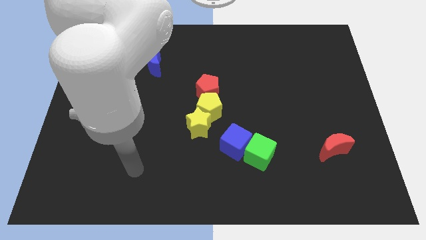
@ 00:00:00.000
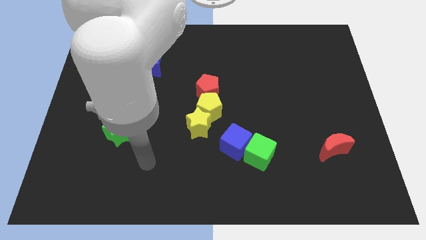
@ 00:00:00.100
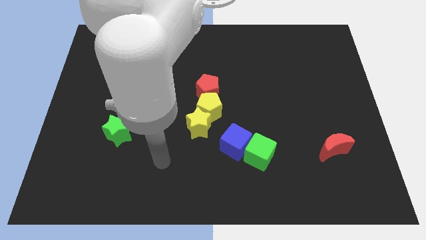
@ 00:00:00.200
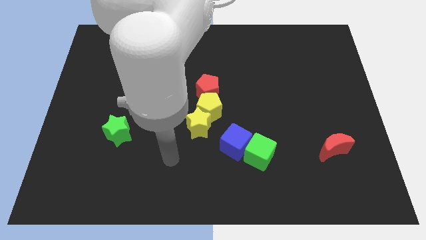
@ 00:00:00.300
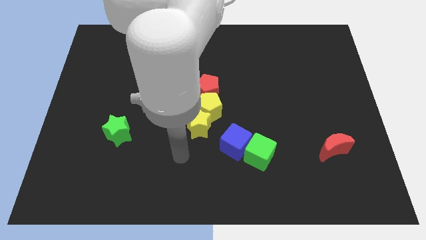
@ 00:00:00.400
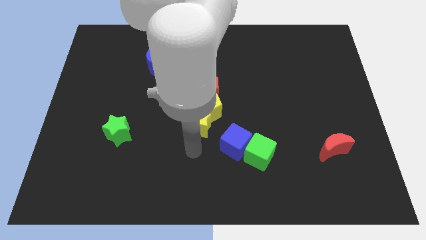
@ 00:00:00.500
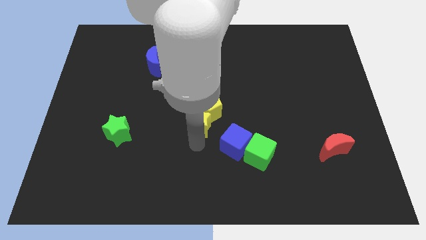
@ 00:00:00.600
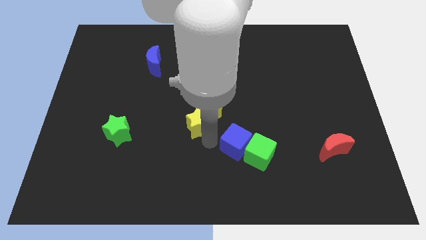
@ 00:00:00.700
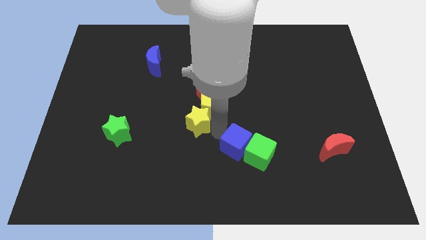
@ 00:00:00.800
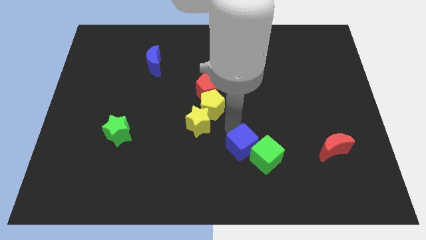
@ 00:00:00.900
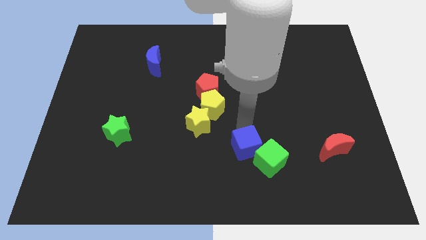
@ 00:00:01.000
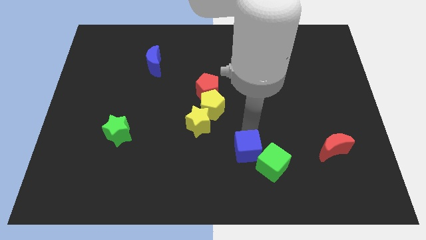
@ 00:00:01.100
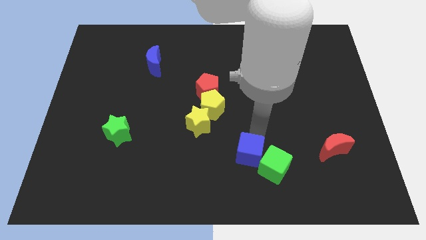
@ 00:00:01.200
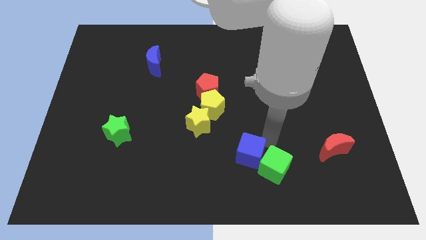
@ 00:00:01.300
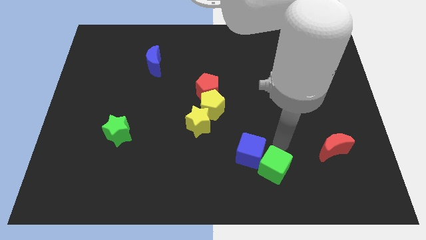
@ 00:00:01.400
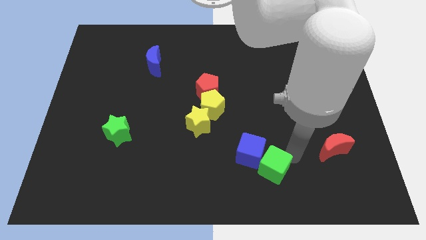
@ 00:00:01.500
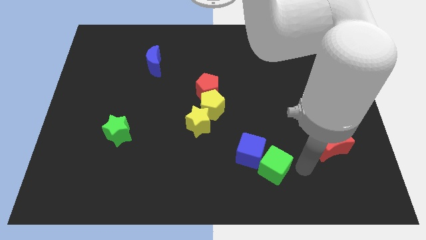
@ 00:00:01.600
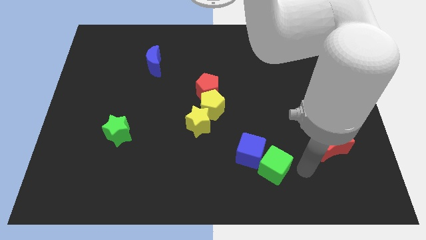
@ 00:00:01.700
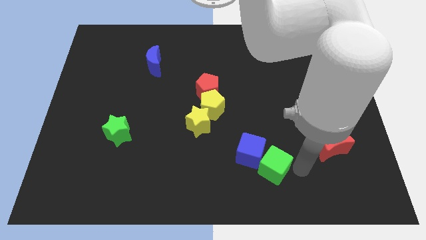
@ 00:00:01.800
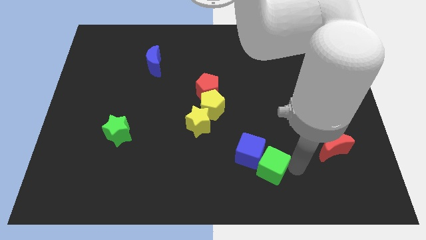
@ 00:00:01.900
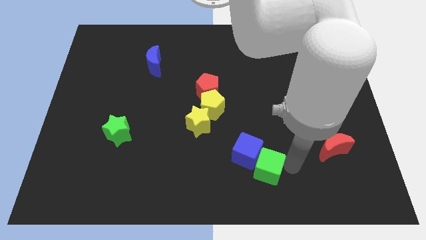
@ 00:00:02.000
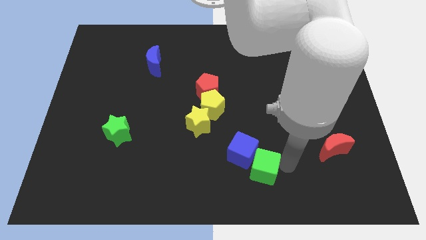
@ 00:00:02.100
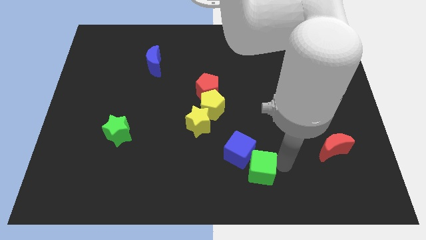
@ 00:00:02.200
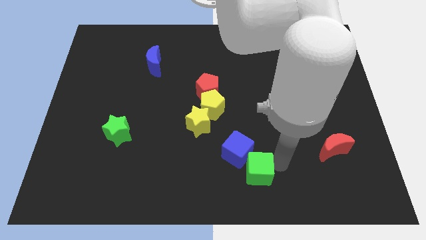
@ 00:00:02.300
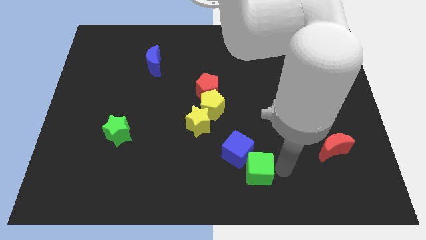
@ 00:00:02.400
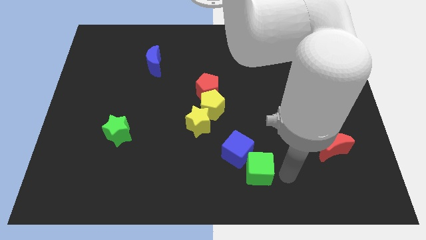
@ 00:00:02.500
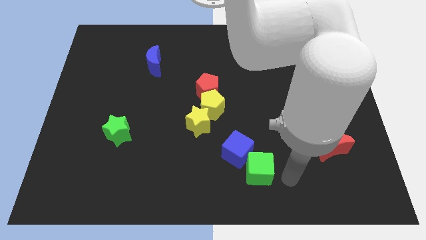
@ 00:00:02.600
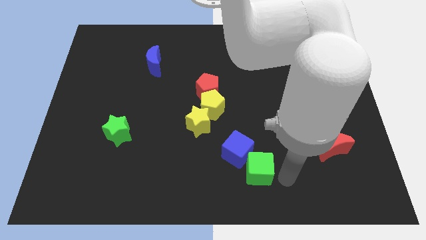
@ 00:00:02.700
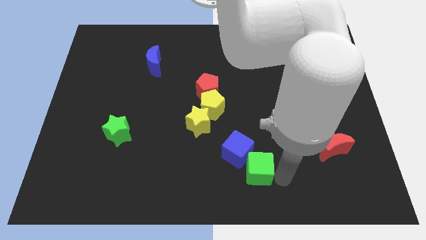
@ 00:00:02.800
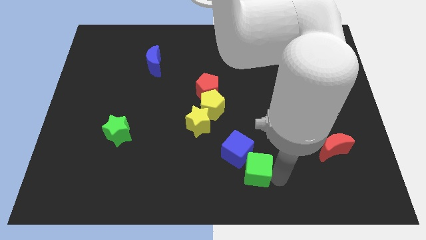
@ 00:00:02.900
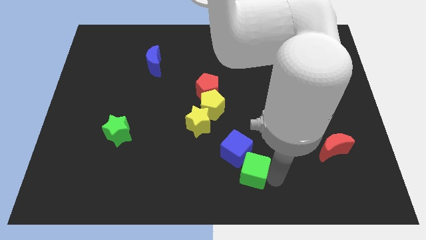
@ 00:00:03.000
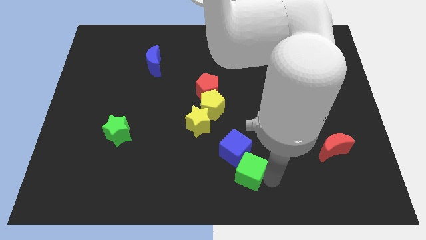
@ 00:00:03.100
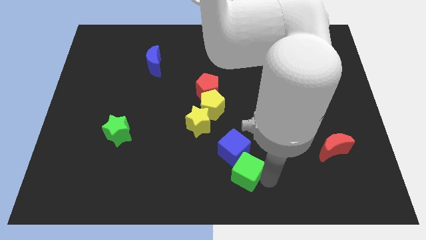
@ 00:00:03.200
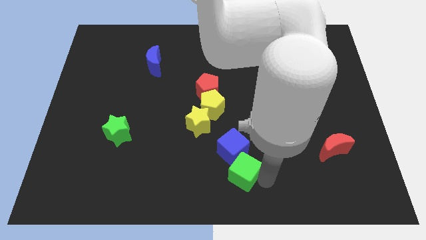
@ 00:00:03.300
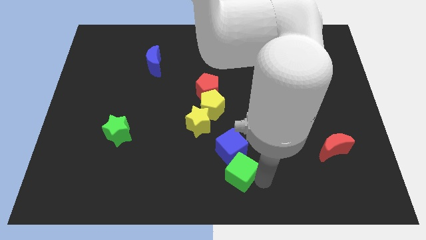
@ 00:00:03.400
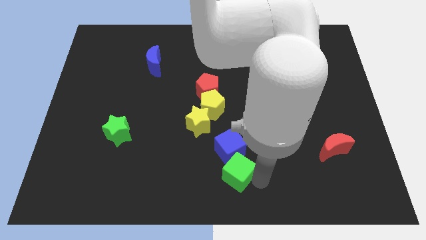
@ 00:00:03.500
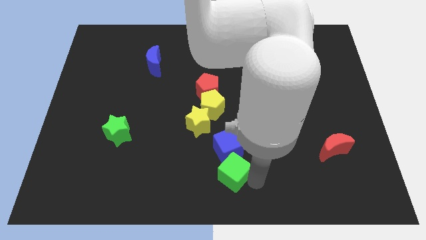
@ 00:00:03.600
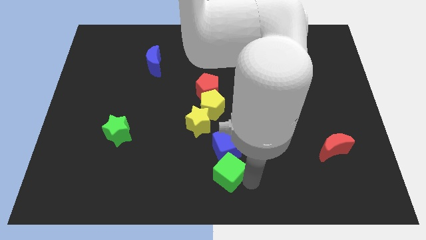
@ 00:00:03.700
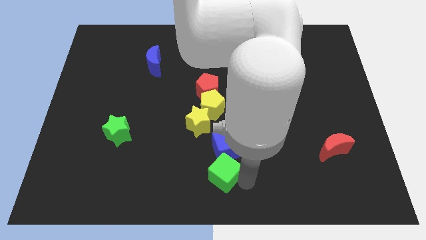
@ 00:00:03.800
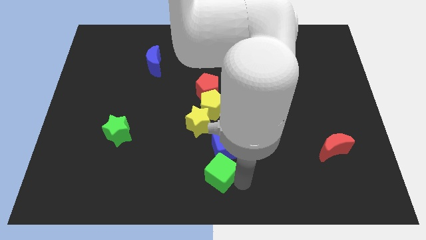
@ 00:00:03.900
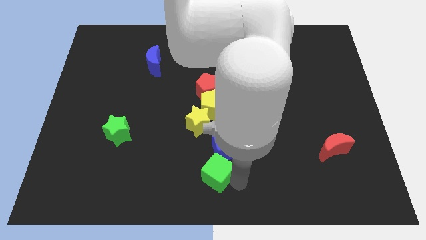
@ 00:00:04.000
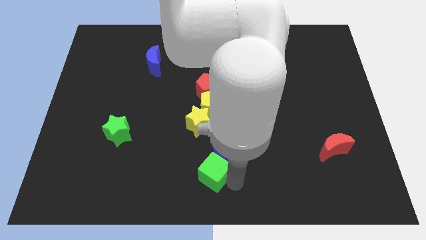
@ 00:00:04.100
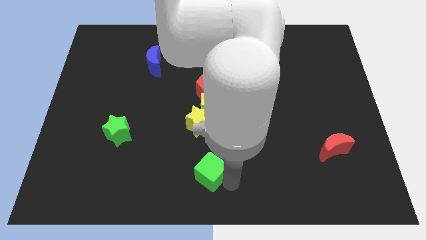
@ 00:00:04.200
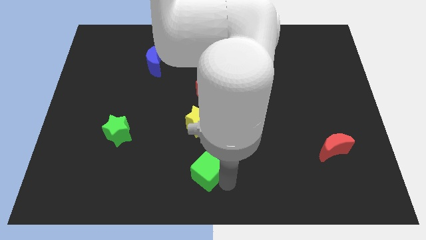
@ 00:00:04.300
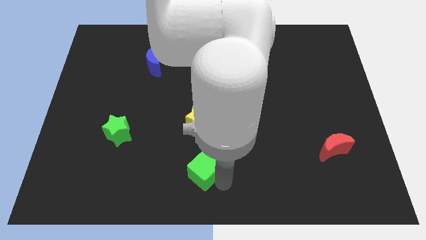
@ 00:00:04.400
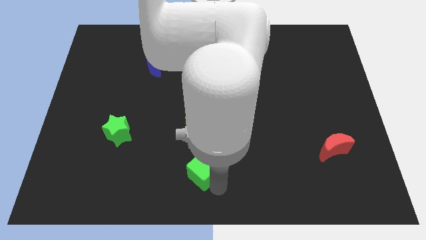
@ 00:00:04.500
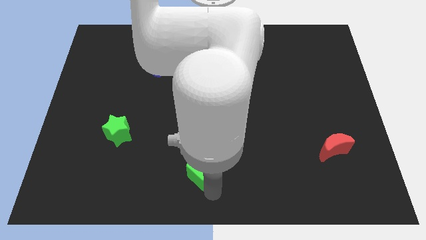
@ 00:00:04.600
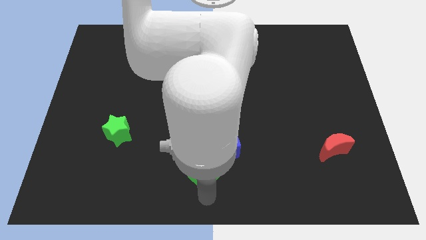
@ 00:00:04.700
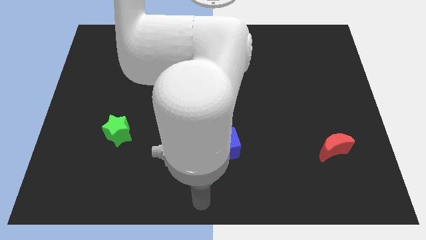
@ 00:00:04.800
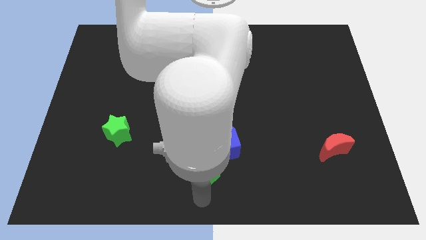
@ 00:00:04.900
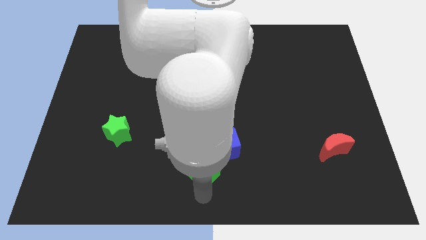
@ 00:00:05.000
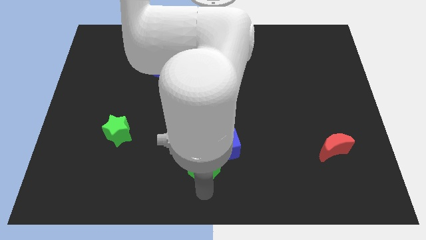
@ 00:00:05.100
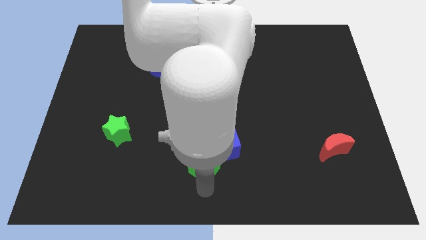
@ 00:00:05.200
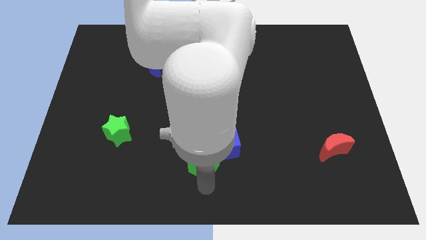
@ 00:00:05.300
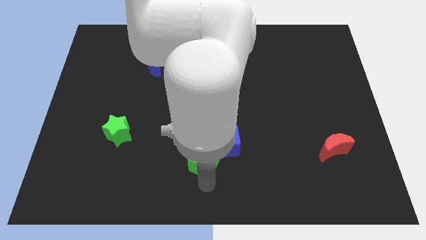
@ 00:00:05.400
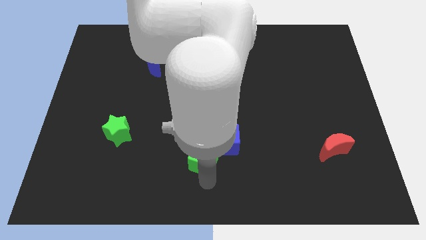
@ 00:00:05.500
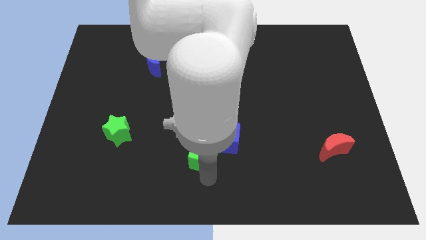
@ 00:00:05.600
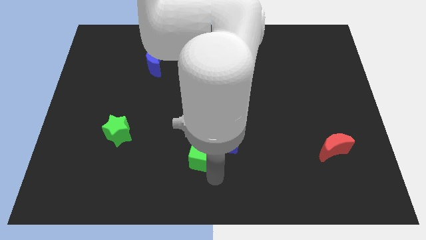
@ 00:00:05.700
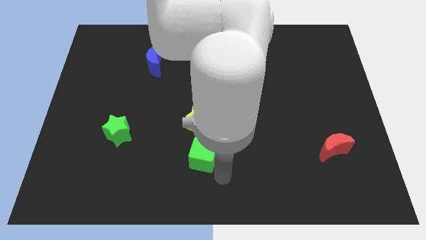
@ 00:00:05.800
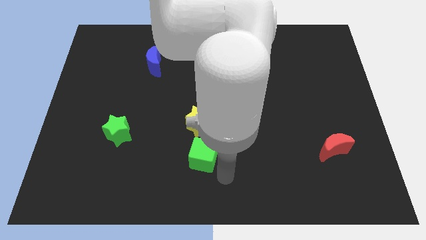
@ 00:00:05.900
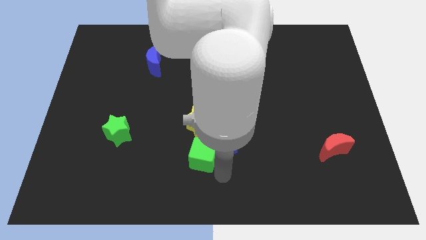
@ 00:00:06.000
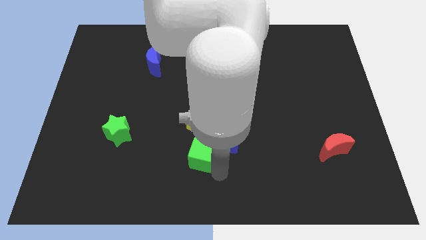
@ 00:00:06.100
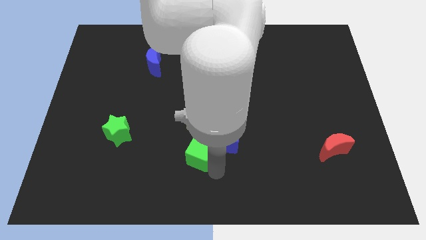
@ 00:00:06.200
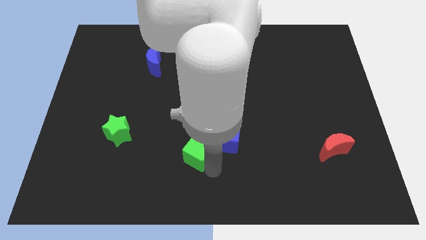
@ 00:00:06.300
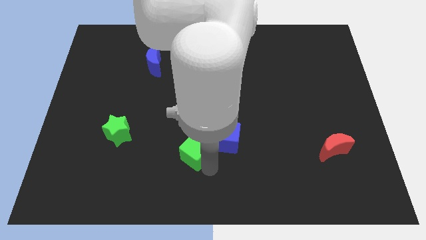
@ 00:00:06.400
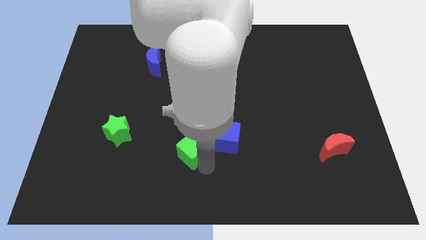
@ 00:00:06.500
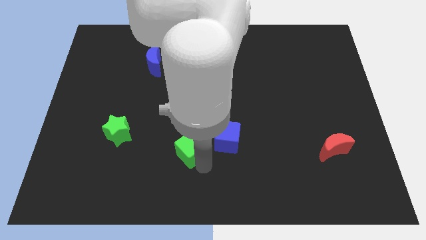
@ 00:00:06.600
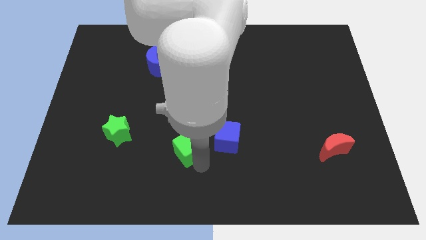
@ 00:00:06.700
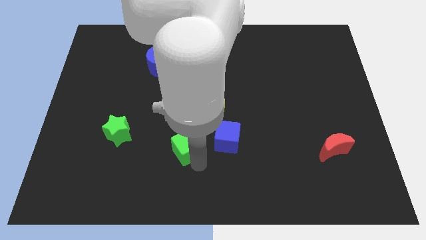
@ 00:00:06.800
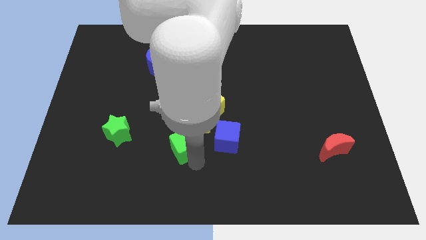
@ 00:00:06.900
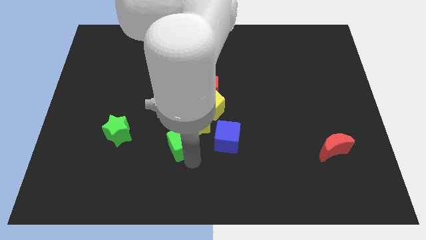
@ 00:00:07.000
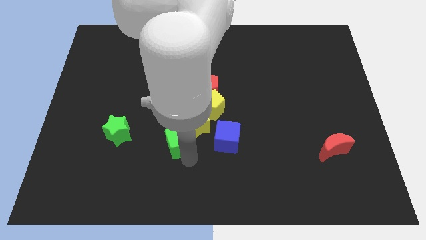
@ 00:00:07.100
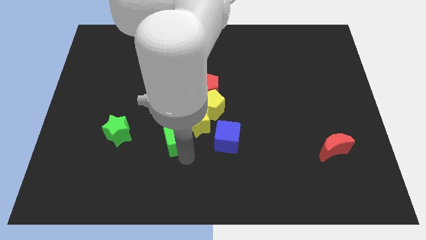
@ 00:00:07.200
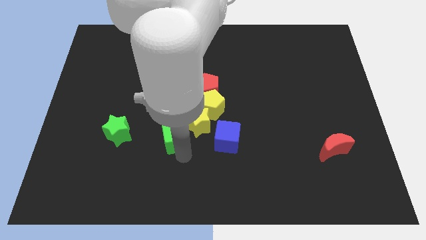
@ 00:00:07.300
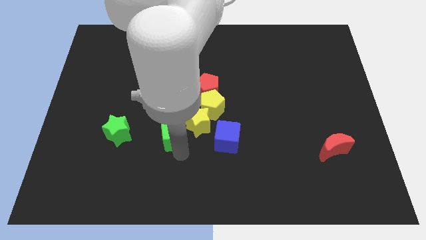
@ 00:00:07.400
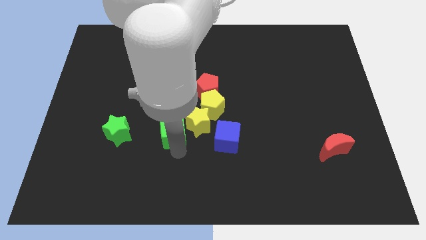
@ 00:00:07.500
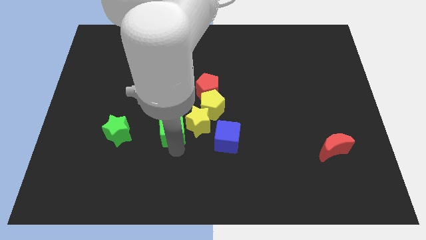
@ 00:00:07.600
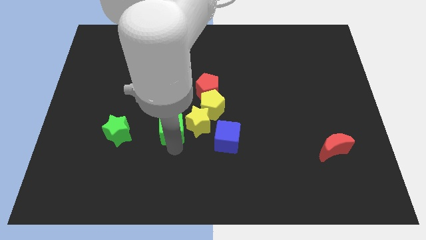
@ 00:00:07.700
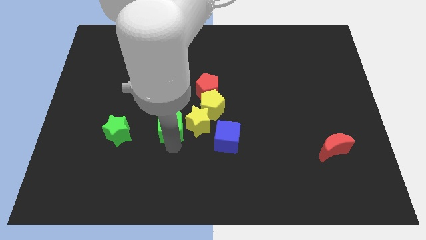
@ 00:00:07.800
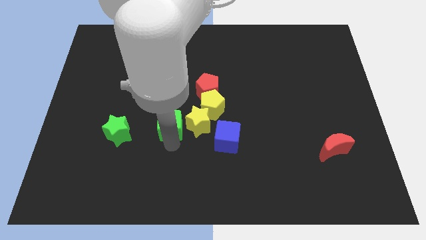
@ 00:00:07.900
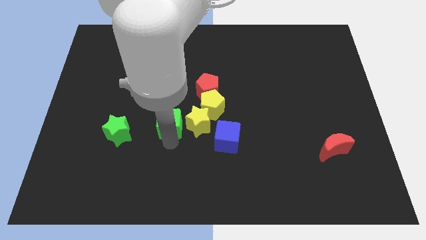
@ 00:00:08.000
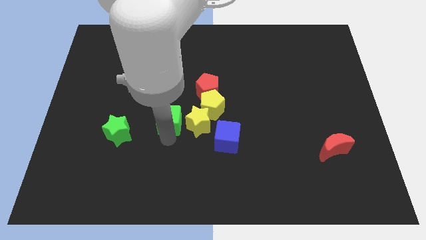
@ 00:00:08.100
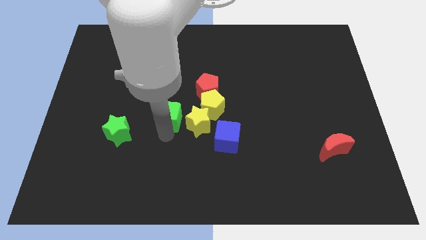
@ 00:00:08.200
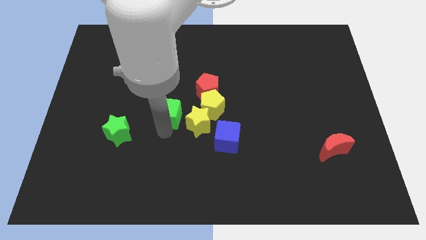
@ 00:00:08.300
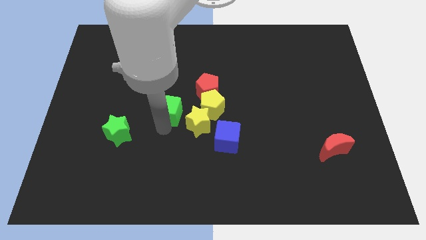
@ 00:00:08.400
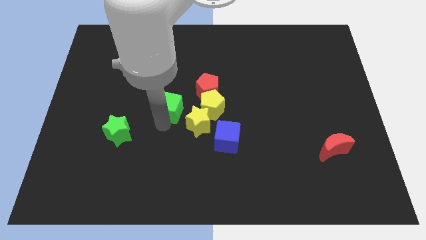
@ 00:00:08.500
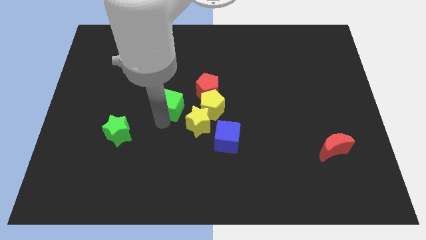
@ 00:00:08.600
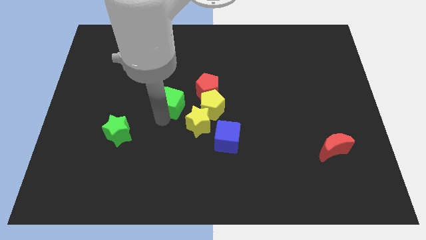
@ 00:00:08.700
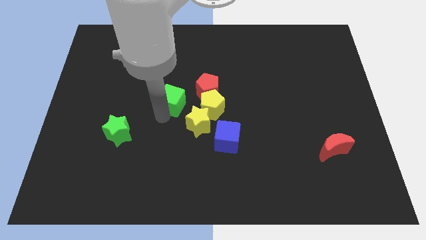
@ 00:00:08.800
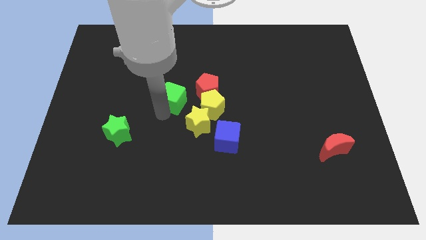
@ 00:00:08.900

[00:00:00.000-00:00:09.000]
move the green cube diagonally up and to the left of the yellow pentagon
